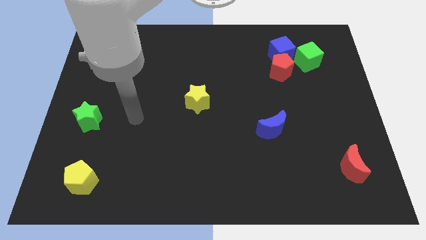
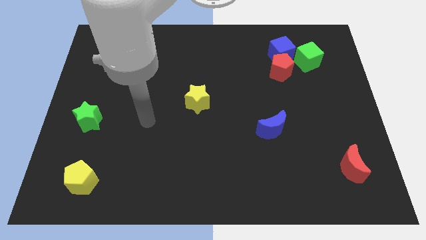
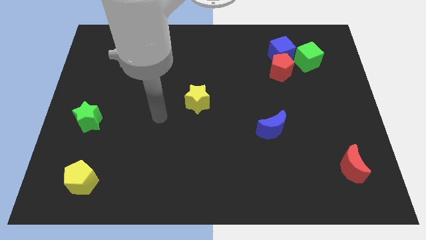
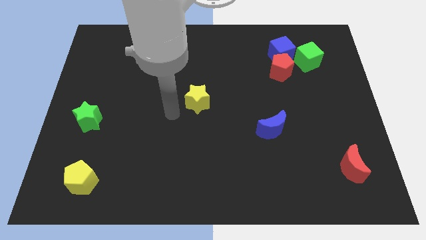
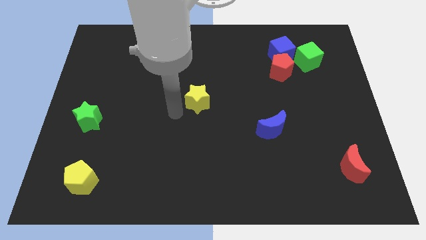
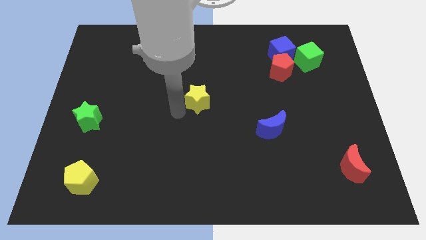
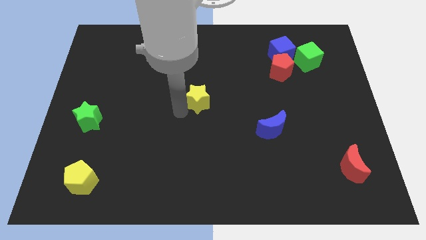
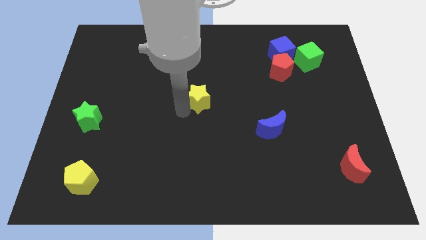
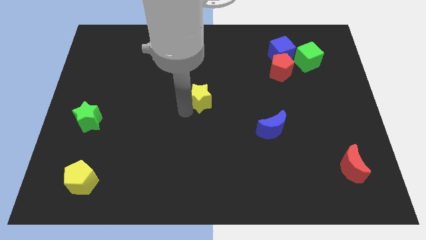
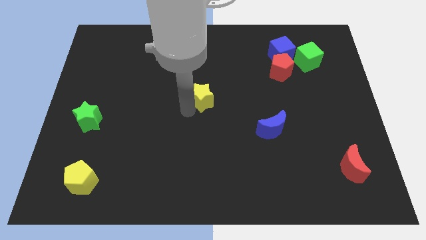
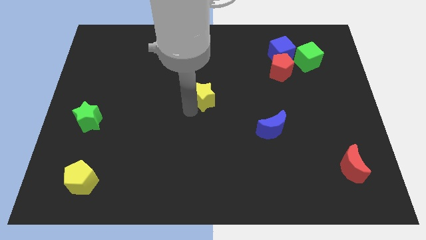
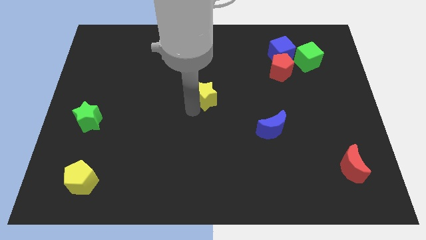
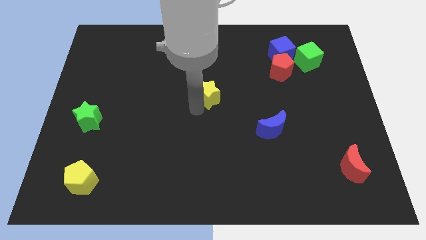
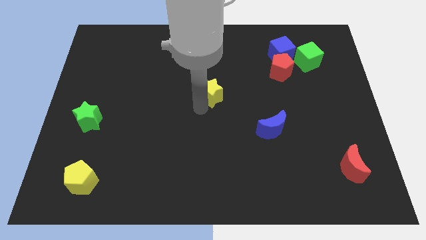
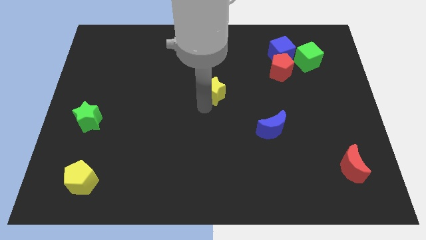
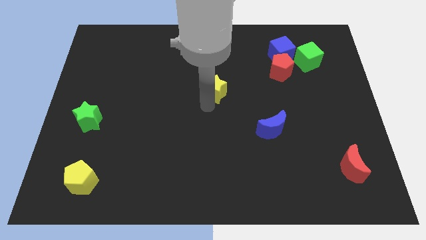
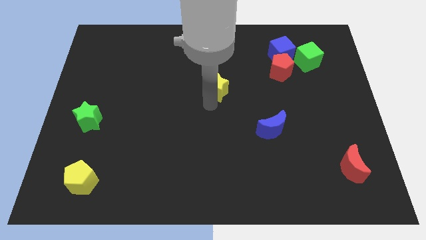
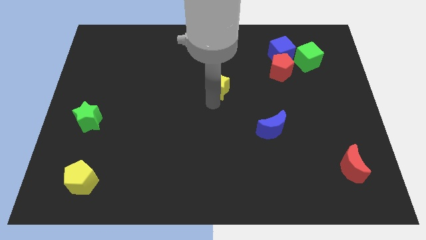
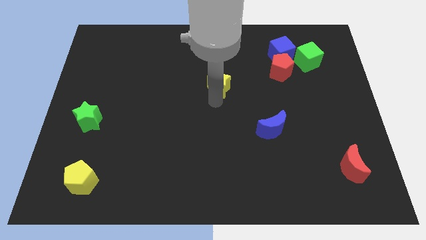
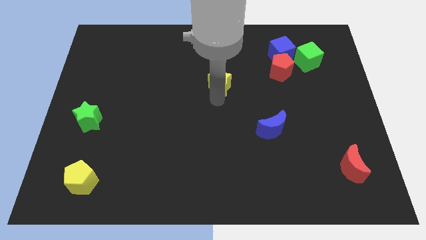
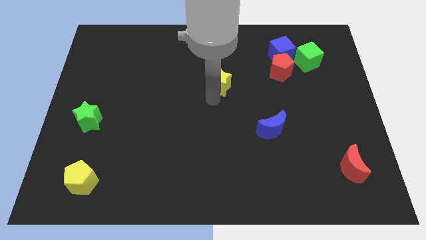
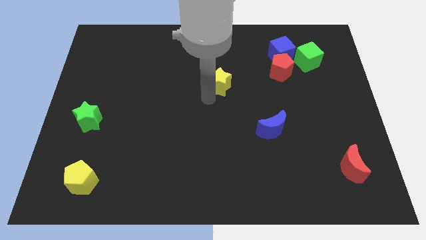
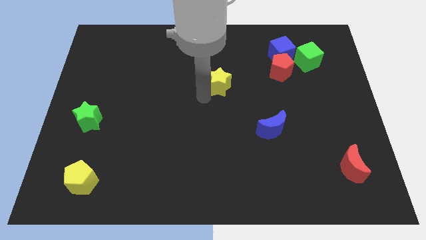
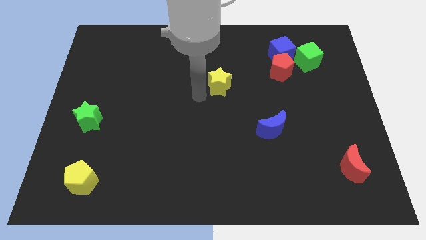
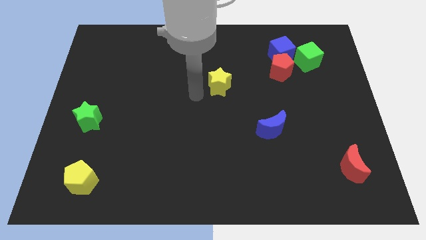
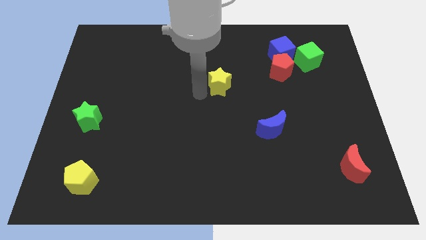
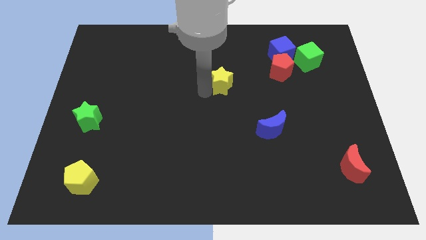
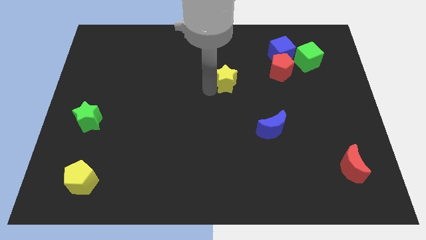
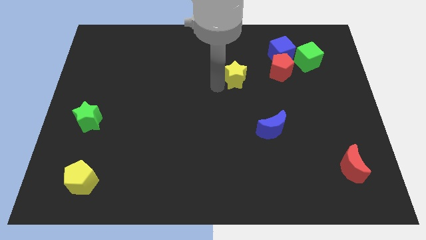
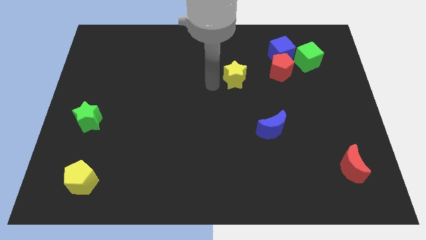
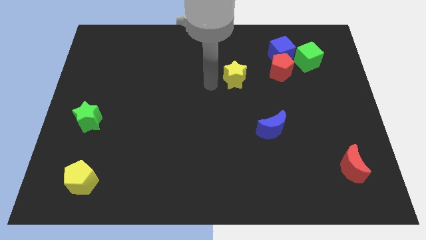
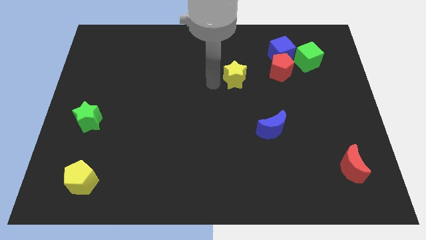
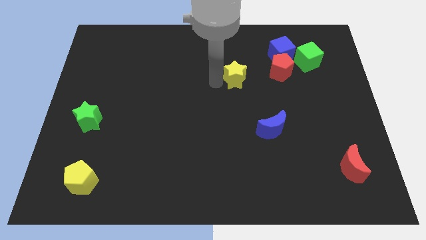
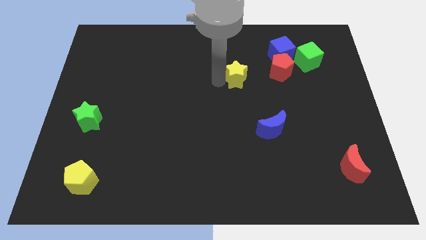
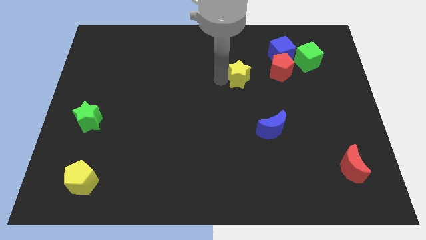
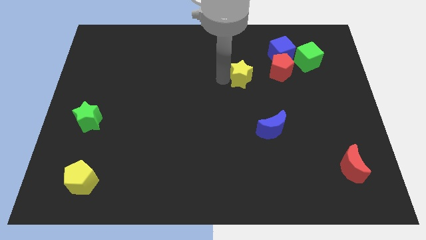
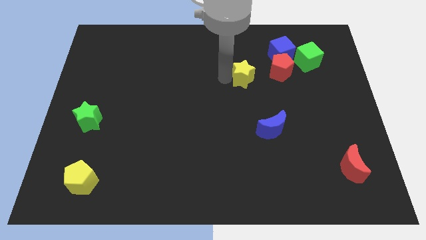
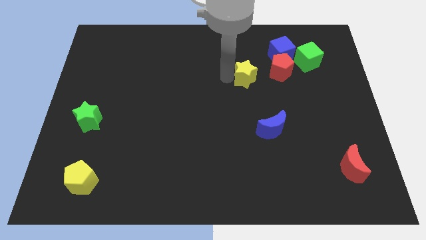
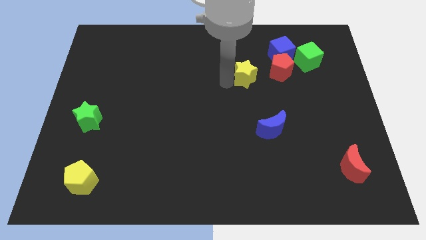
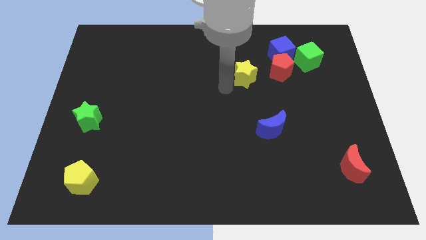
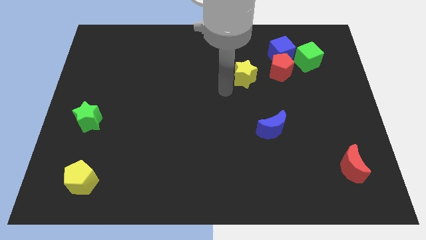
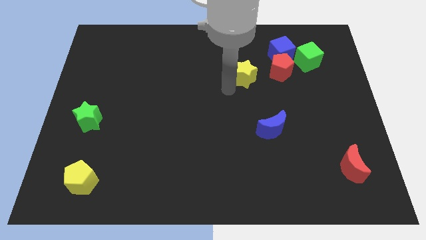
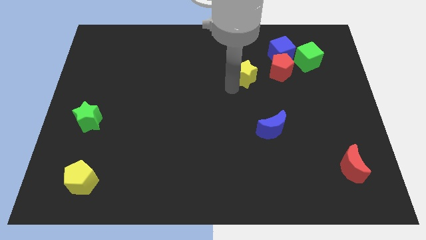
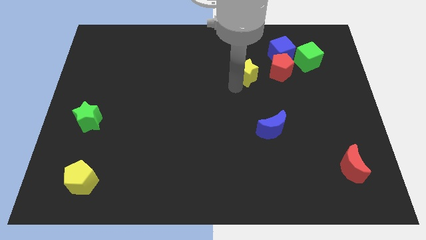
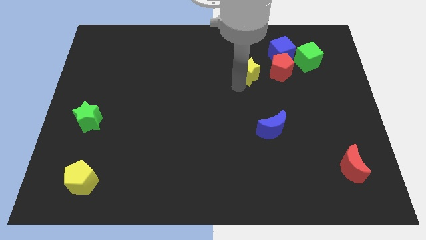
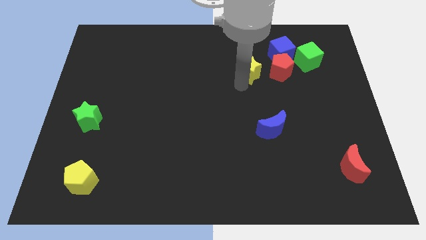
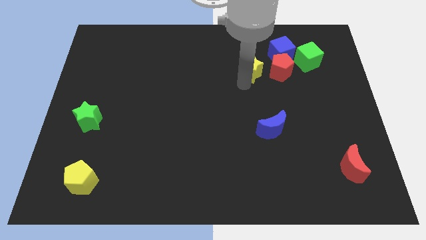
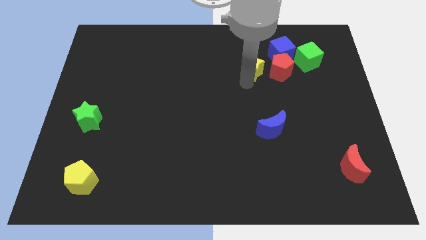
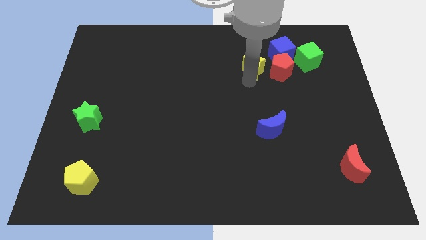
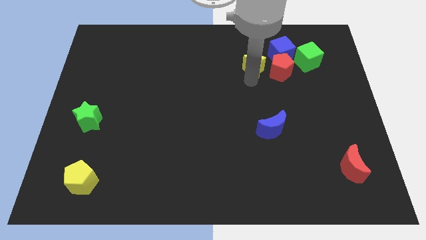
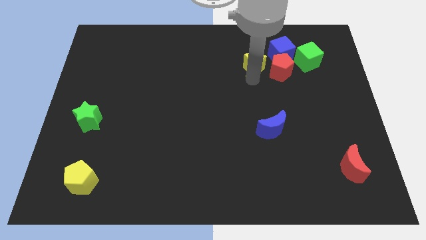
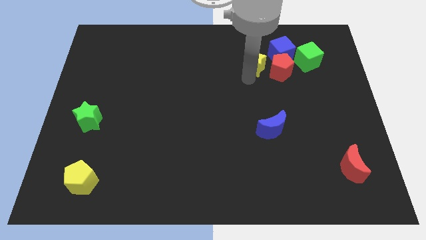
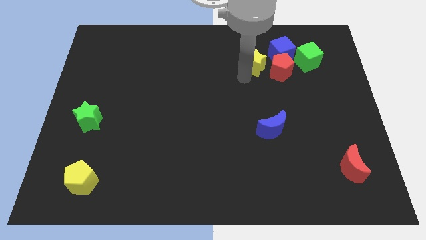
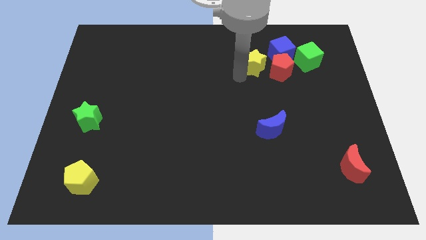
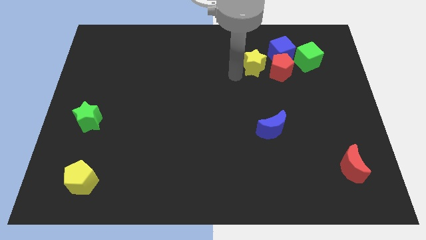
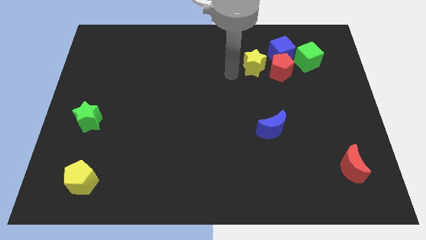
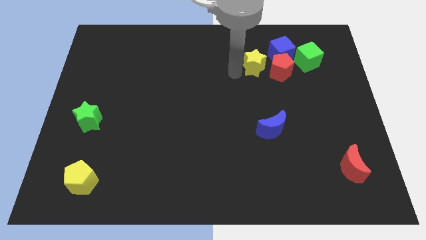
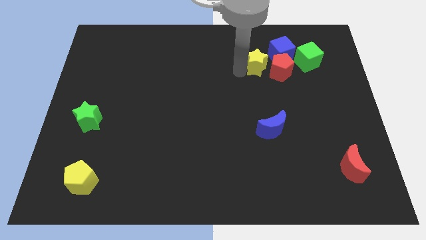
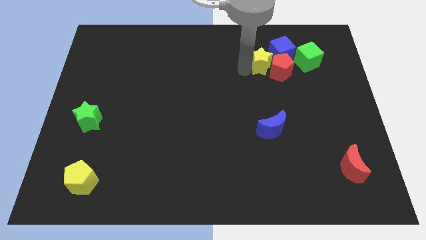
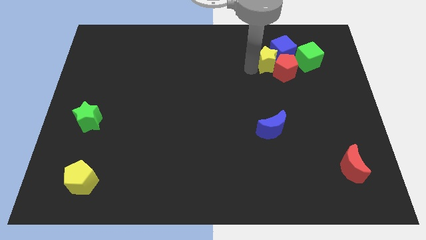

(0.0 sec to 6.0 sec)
push the yellow star next to the blue cube

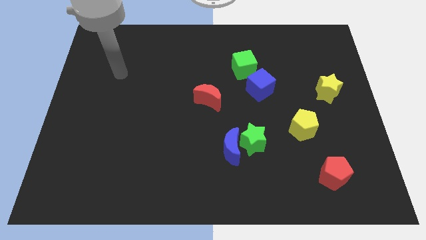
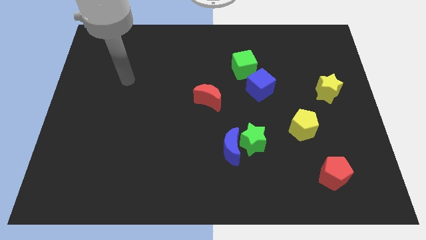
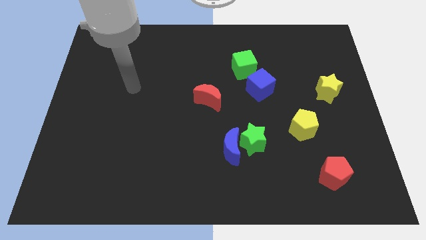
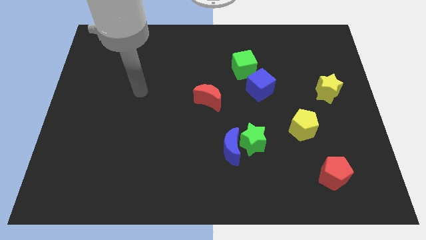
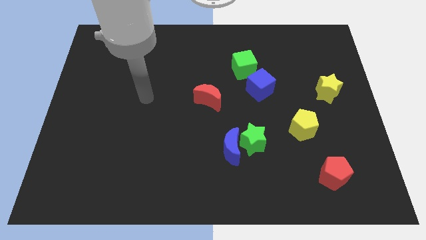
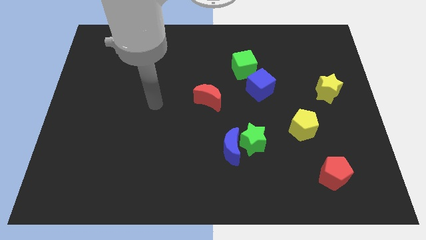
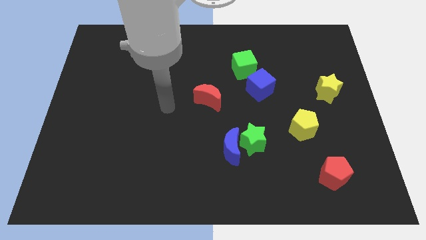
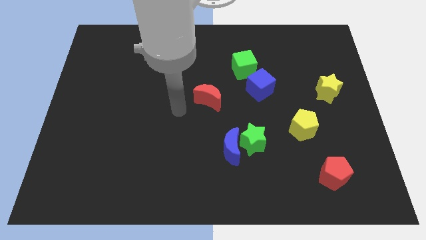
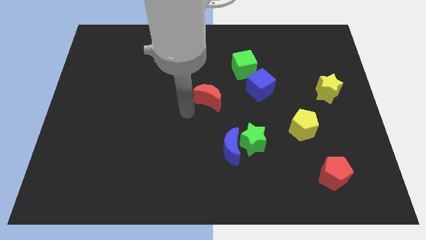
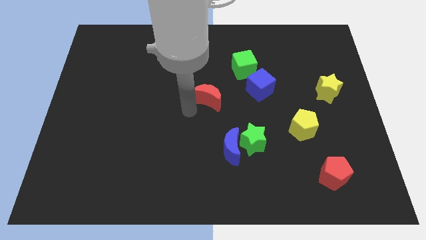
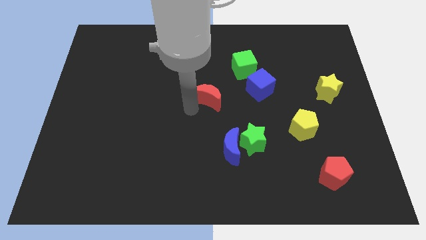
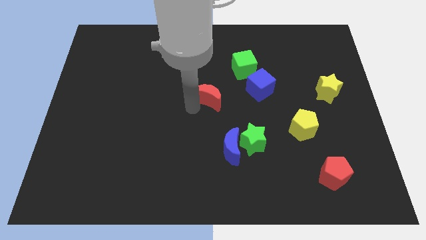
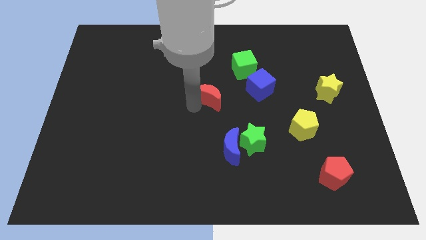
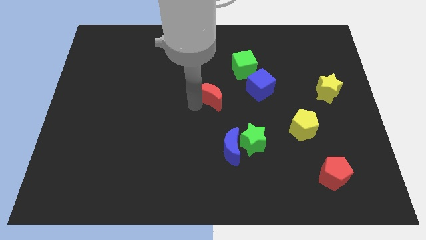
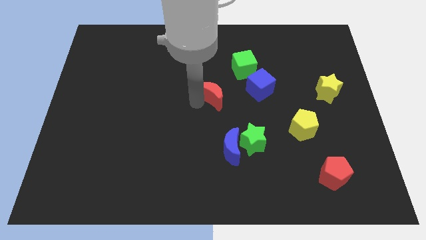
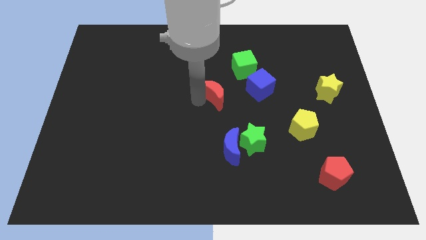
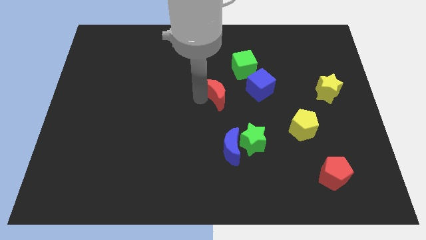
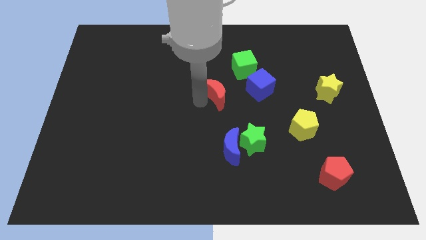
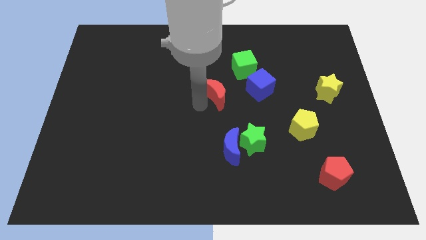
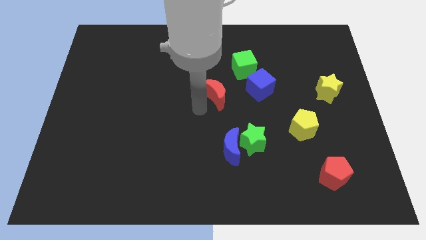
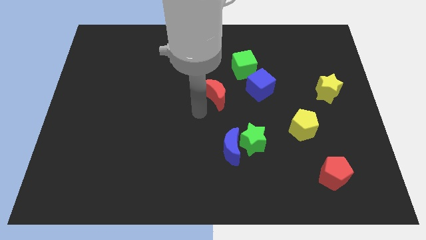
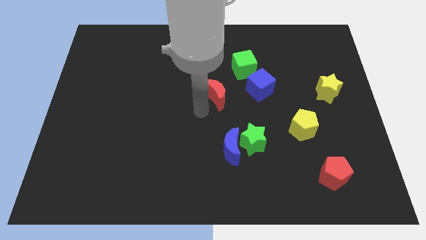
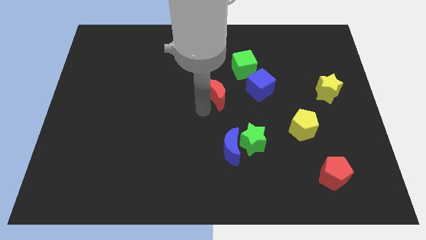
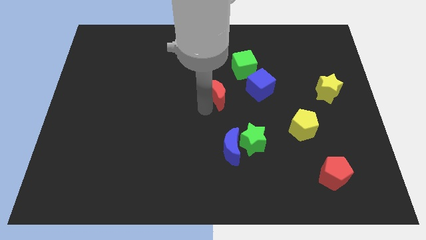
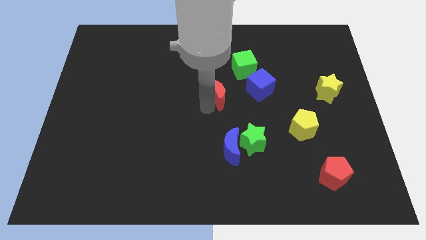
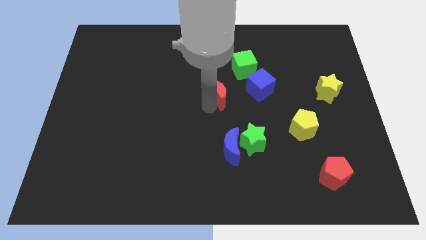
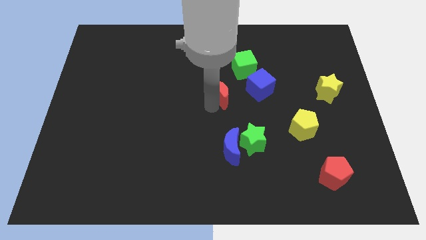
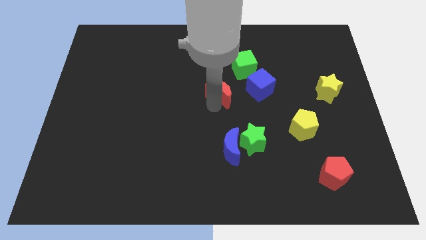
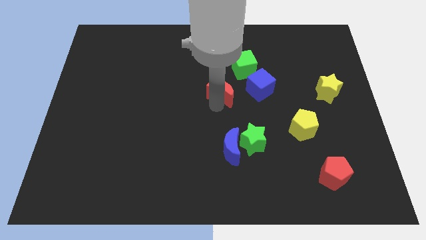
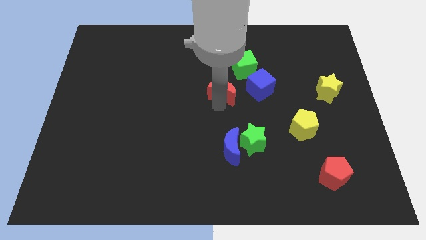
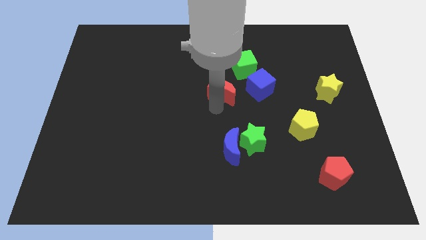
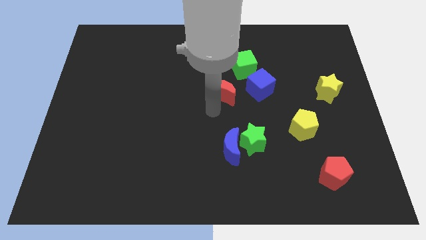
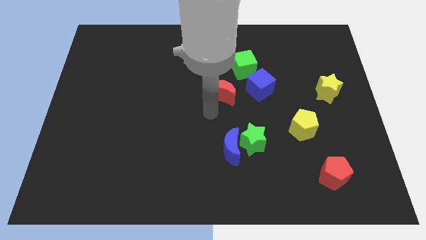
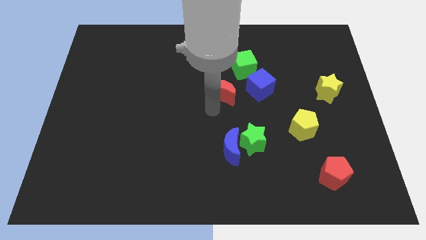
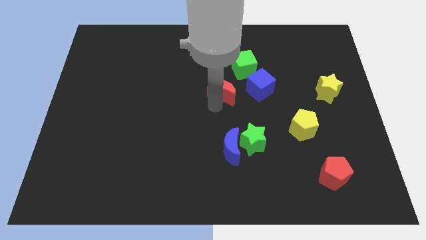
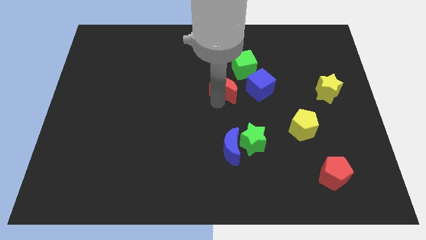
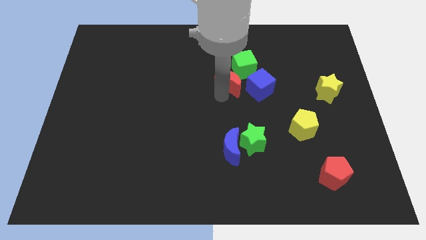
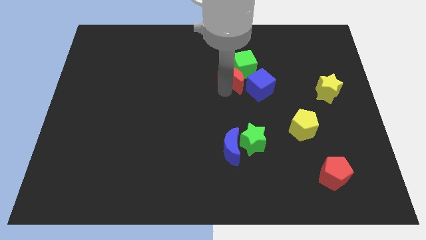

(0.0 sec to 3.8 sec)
slide the red moon next to the green cube
